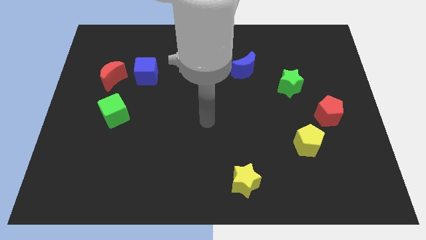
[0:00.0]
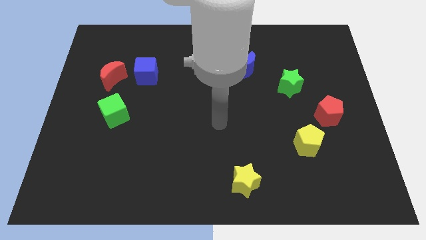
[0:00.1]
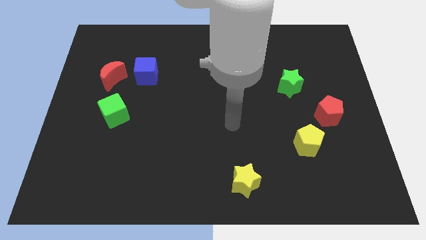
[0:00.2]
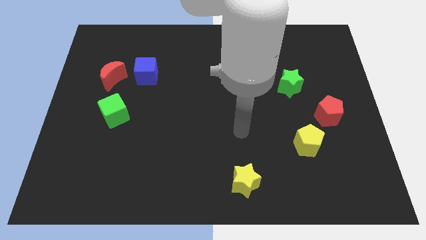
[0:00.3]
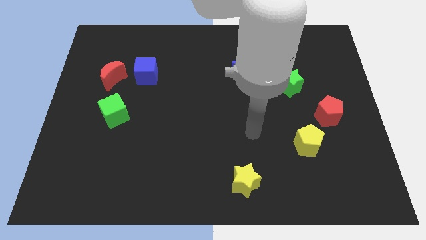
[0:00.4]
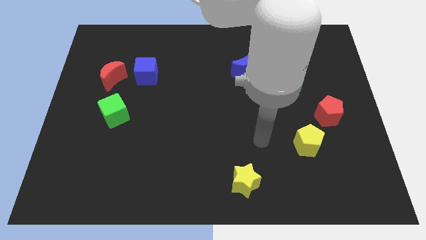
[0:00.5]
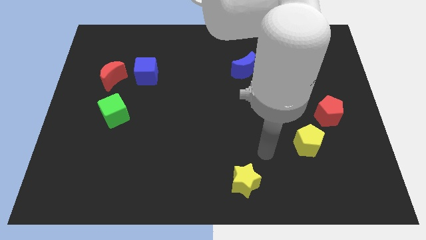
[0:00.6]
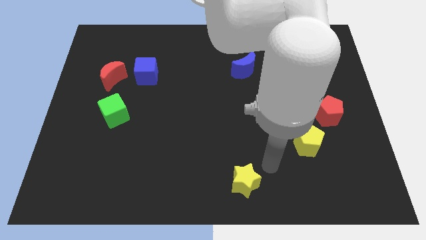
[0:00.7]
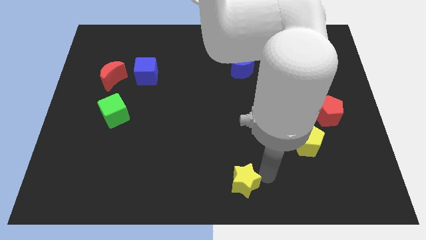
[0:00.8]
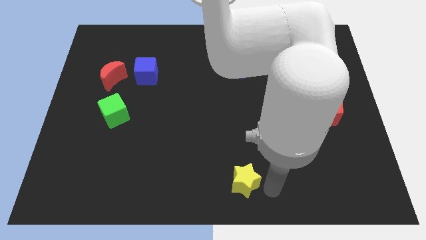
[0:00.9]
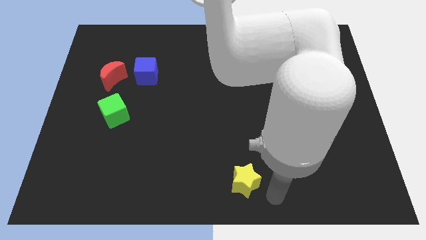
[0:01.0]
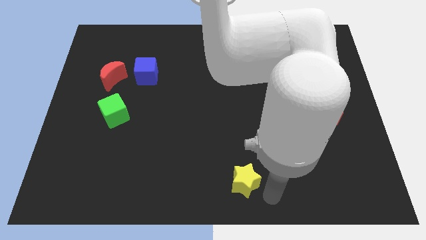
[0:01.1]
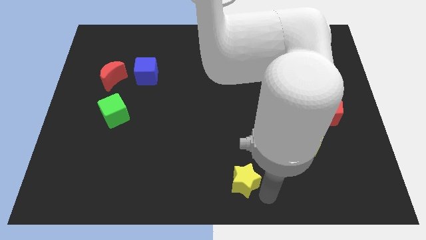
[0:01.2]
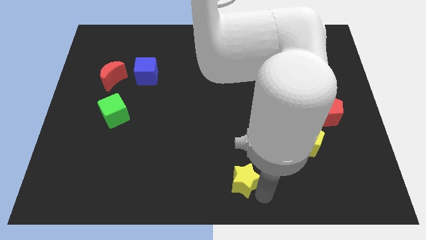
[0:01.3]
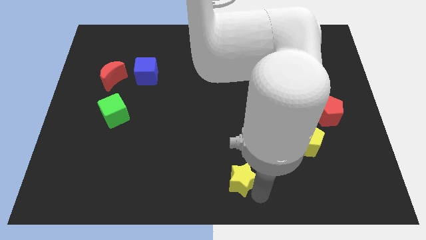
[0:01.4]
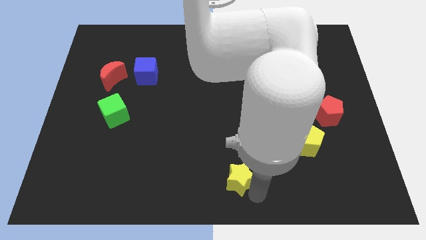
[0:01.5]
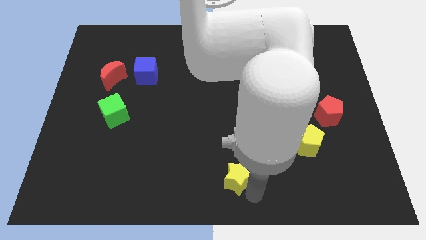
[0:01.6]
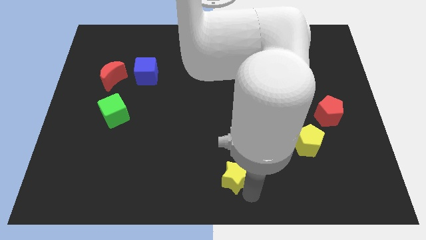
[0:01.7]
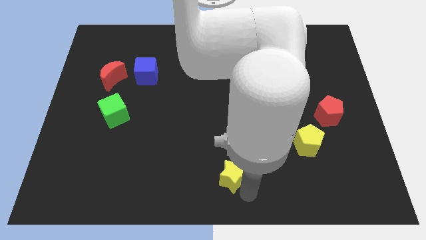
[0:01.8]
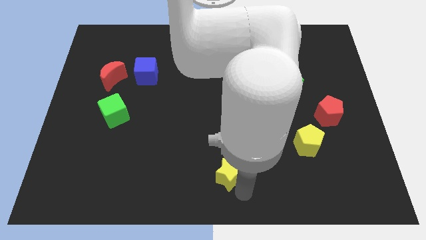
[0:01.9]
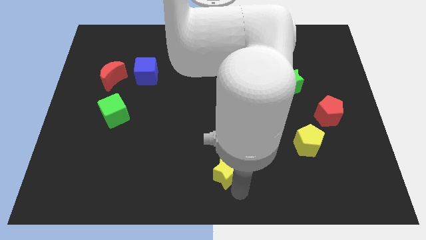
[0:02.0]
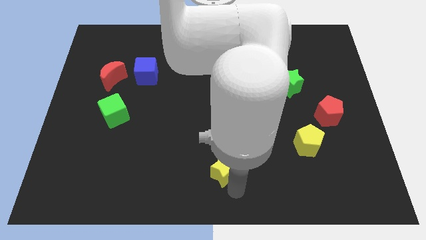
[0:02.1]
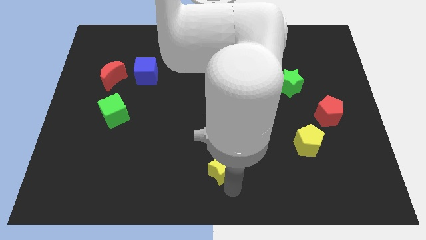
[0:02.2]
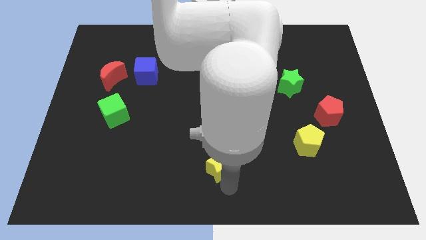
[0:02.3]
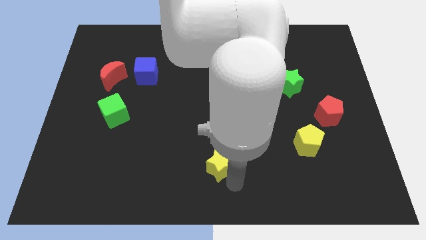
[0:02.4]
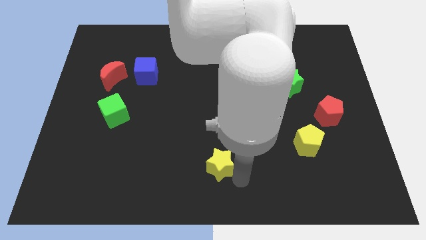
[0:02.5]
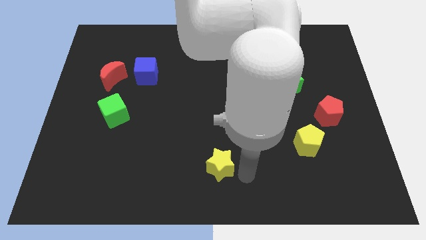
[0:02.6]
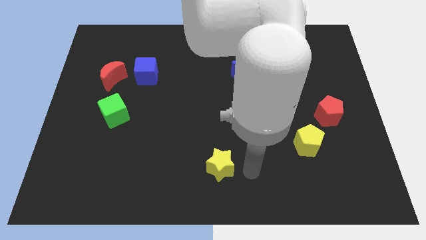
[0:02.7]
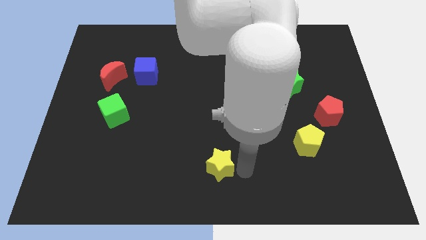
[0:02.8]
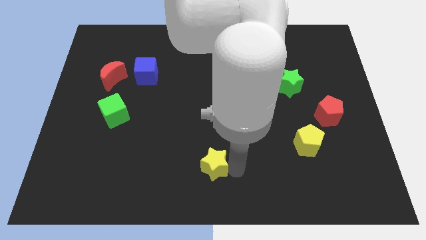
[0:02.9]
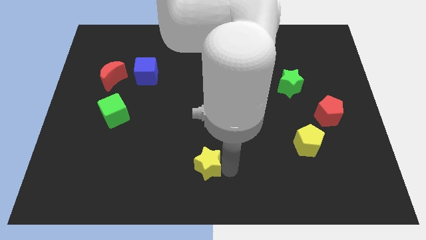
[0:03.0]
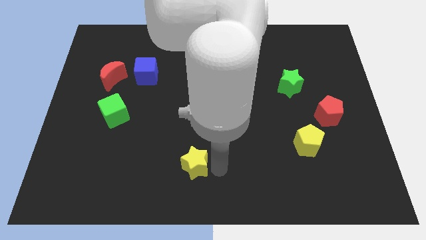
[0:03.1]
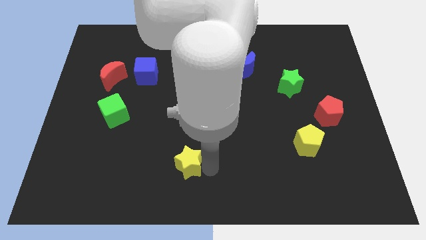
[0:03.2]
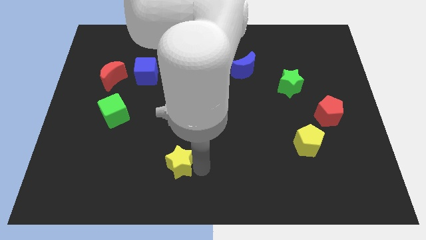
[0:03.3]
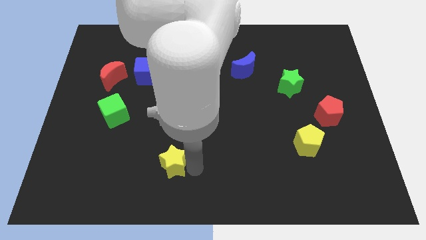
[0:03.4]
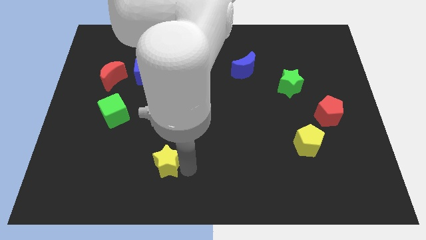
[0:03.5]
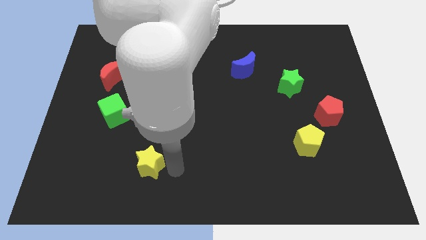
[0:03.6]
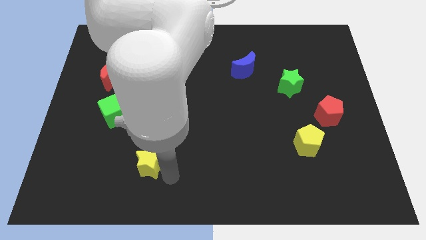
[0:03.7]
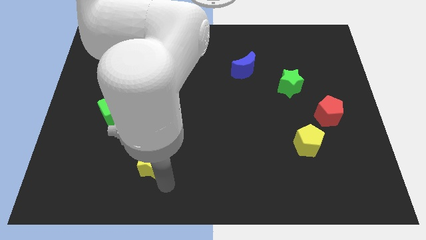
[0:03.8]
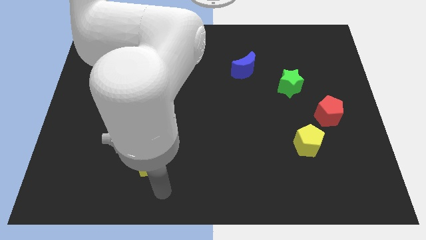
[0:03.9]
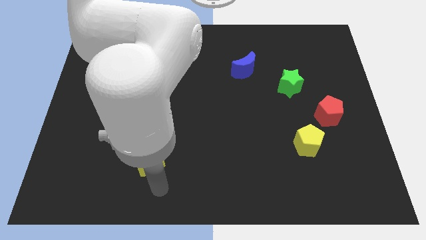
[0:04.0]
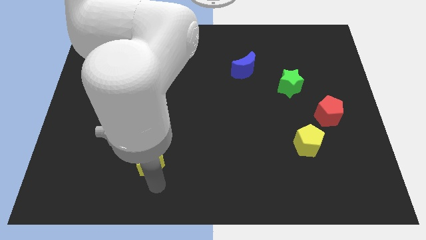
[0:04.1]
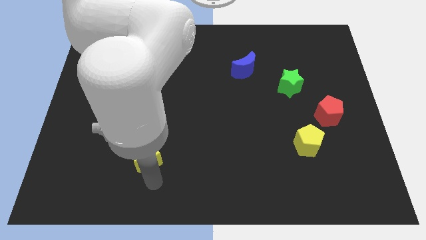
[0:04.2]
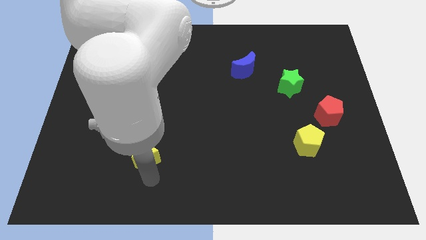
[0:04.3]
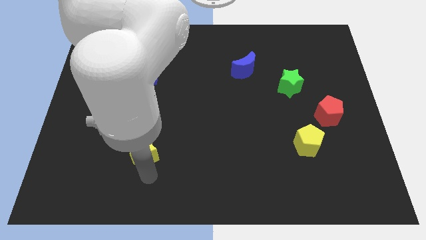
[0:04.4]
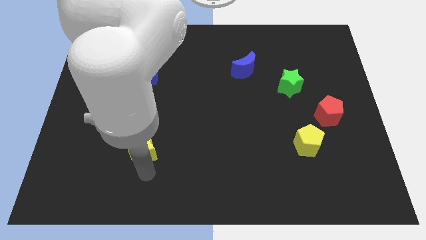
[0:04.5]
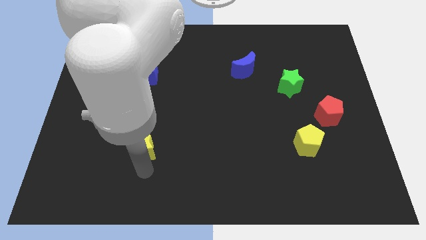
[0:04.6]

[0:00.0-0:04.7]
move the yellow star diagonally down and to the right of the green cube

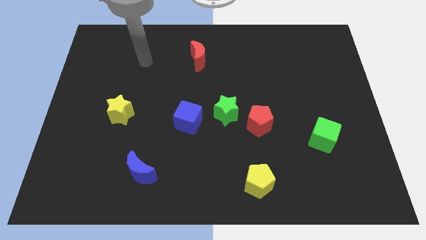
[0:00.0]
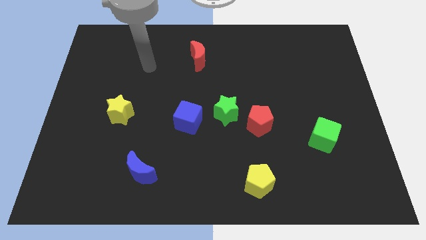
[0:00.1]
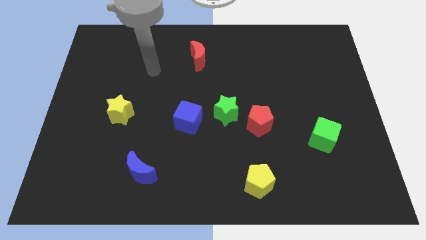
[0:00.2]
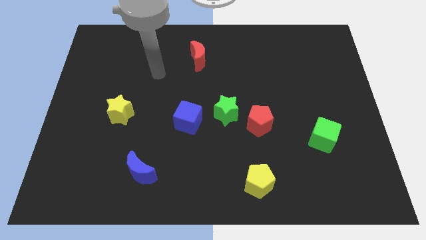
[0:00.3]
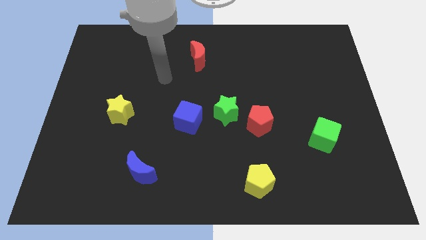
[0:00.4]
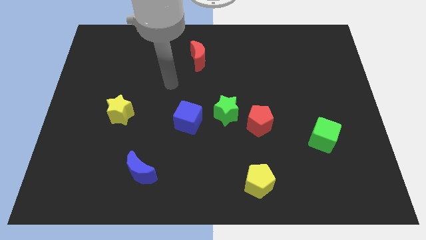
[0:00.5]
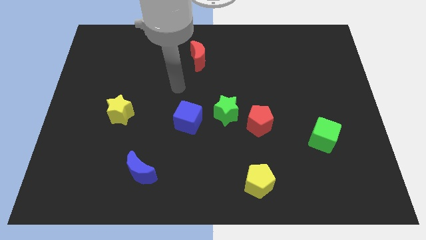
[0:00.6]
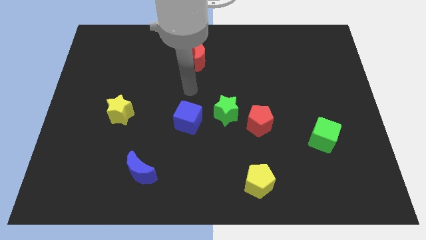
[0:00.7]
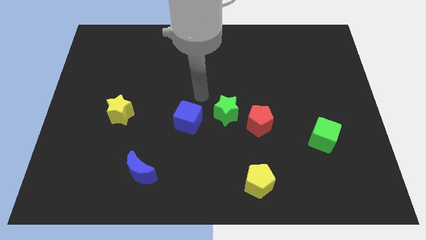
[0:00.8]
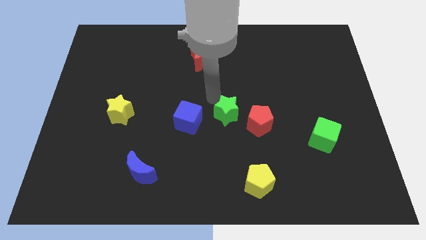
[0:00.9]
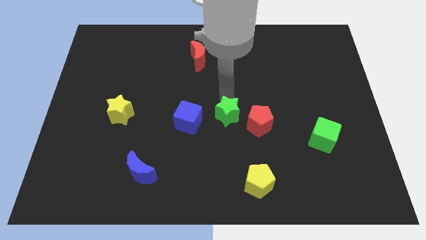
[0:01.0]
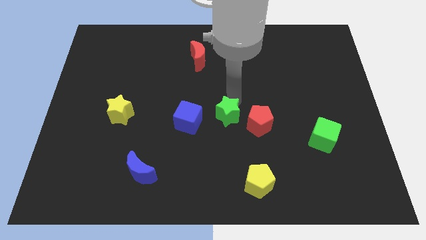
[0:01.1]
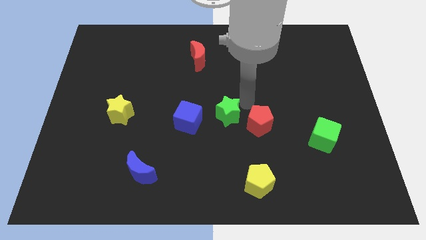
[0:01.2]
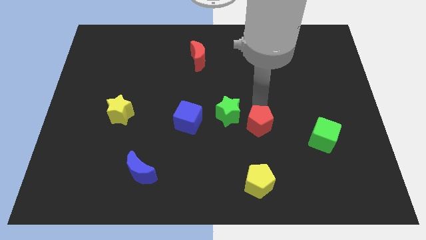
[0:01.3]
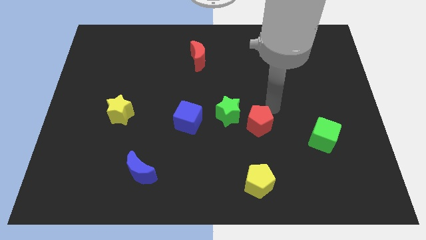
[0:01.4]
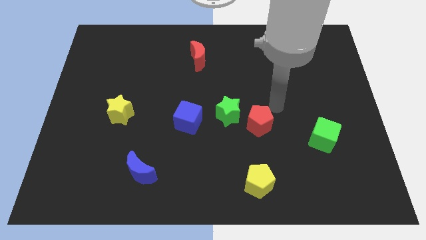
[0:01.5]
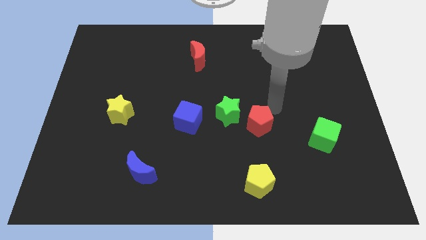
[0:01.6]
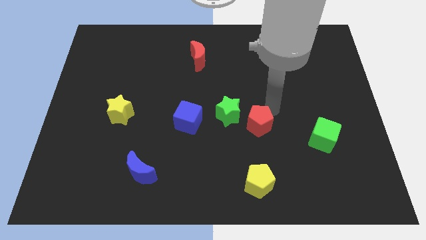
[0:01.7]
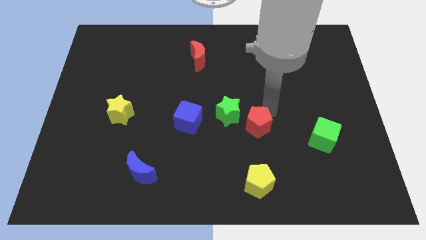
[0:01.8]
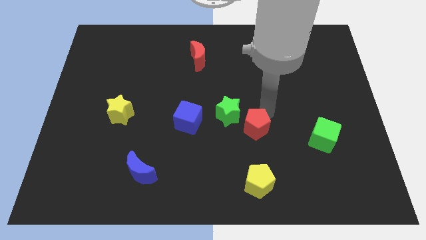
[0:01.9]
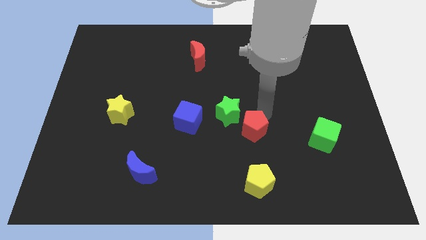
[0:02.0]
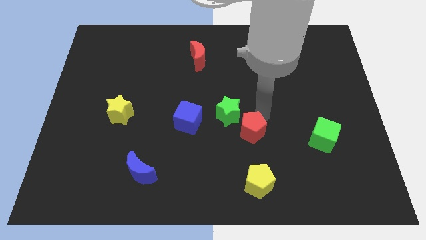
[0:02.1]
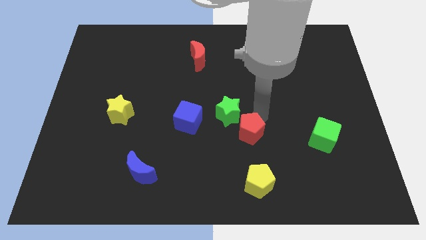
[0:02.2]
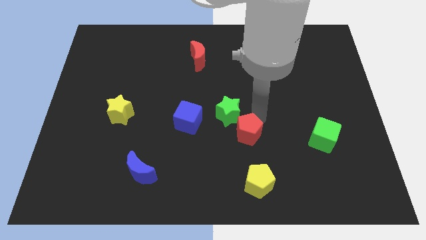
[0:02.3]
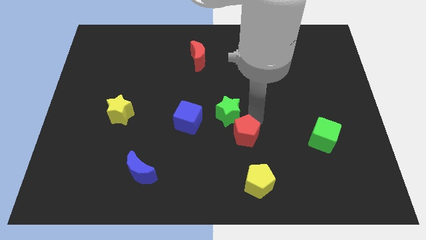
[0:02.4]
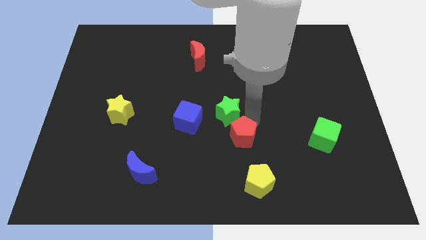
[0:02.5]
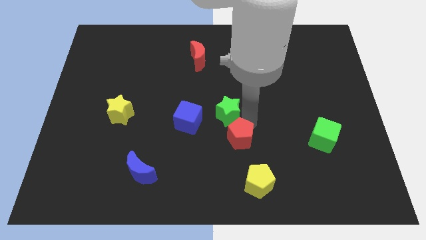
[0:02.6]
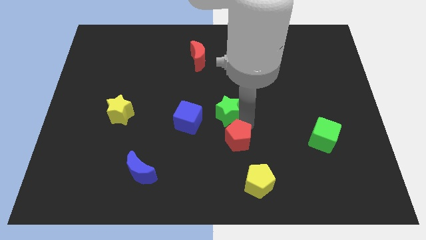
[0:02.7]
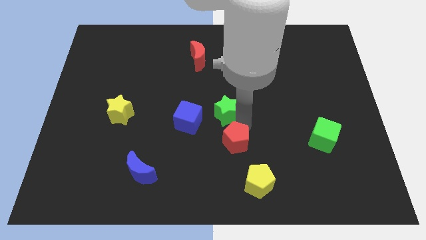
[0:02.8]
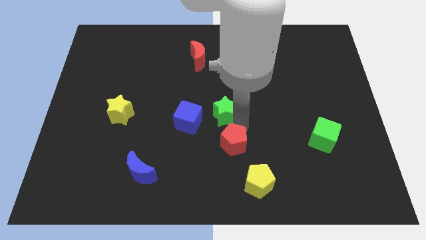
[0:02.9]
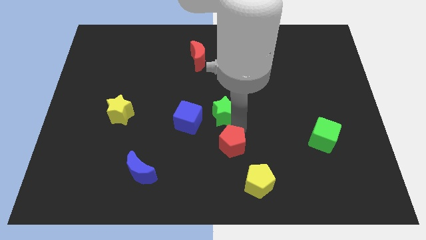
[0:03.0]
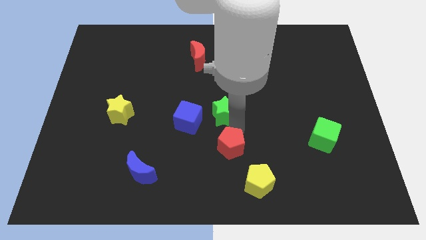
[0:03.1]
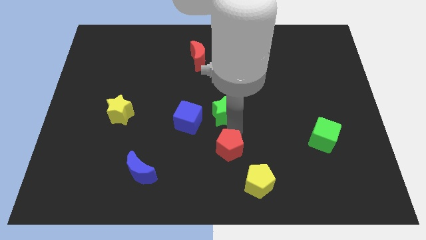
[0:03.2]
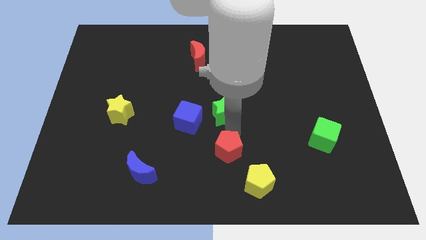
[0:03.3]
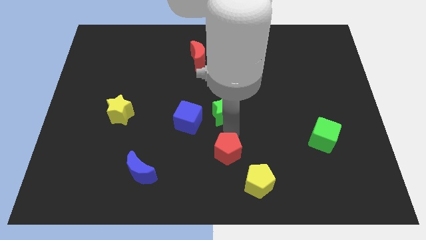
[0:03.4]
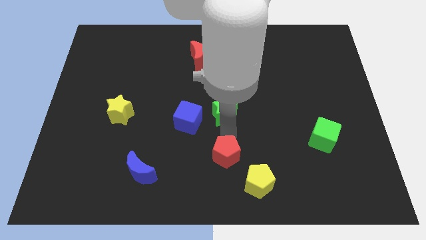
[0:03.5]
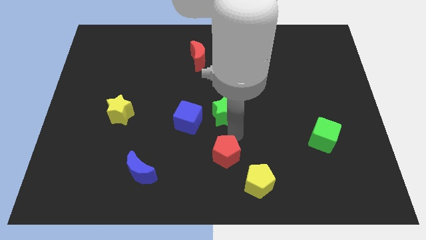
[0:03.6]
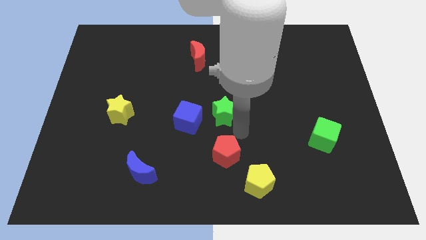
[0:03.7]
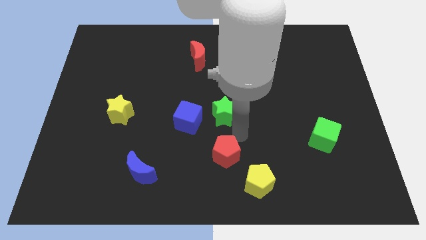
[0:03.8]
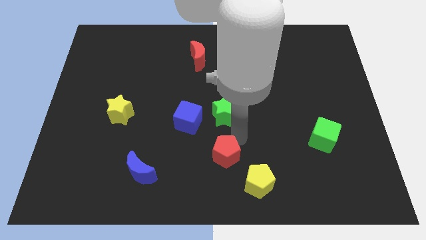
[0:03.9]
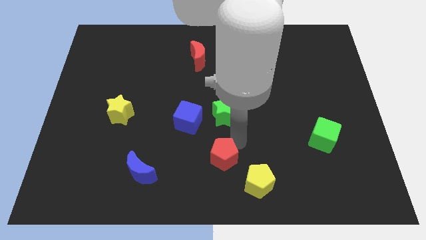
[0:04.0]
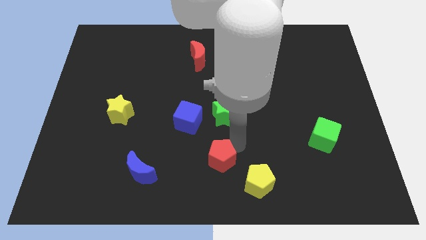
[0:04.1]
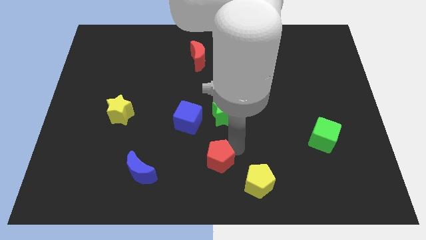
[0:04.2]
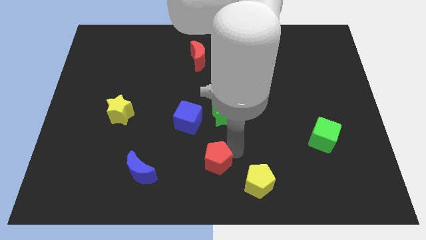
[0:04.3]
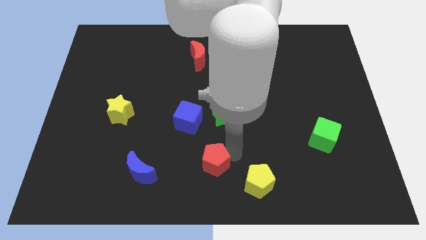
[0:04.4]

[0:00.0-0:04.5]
put the red pentagon just left of the yellow pentagon
